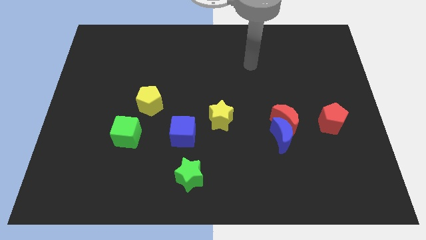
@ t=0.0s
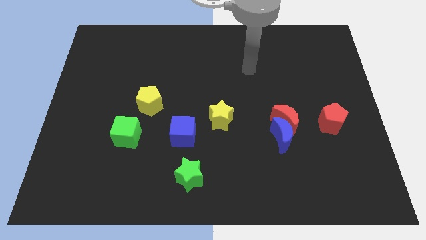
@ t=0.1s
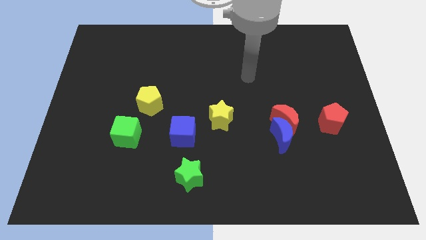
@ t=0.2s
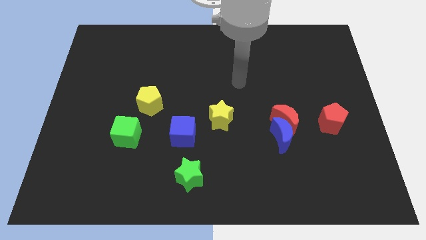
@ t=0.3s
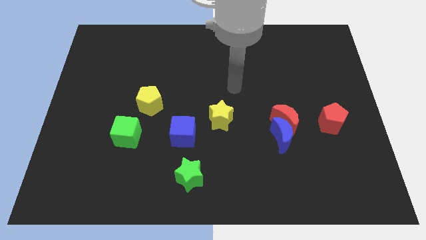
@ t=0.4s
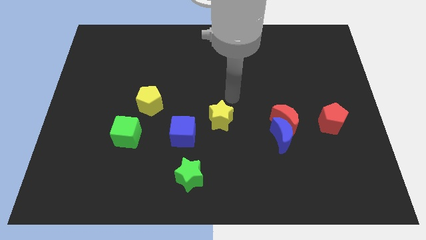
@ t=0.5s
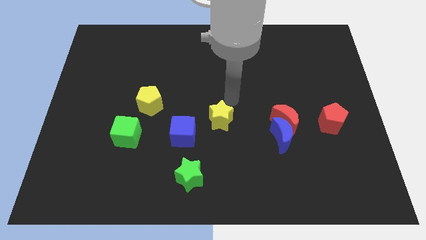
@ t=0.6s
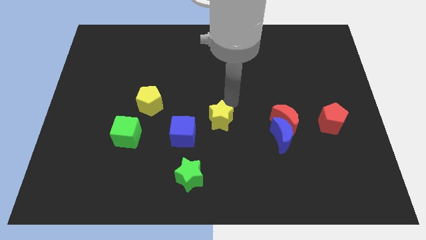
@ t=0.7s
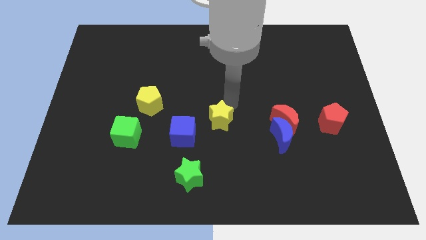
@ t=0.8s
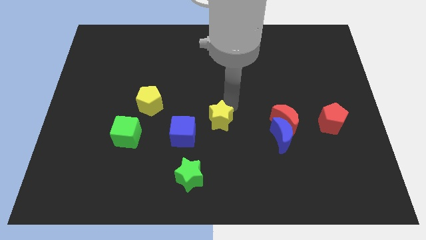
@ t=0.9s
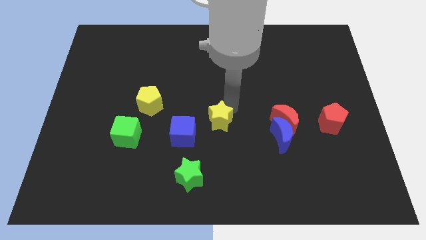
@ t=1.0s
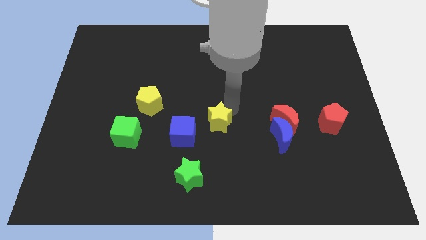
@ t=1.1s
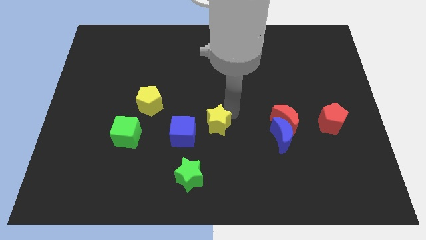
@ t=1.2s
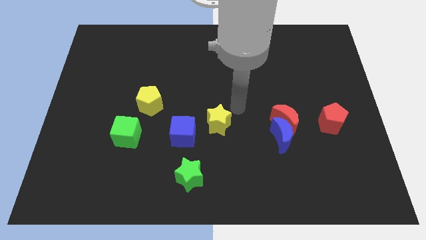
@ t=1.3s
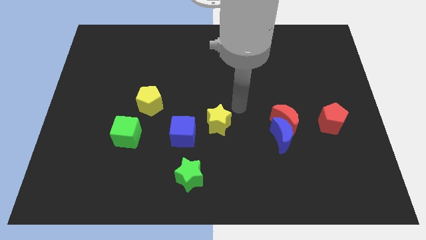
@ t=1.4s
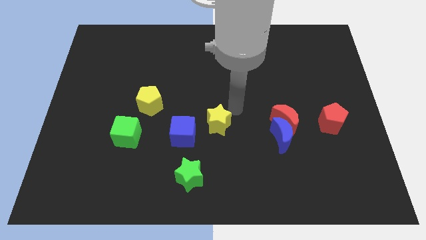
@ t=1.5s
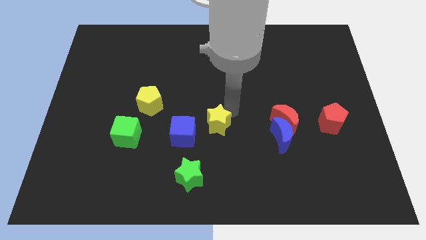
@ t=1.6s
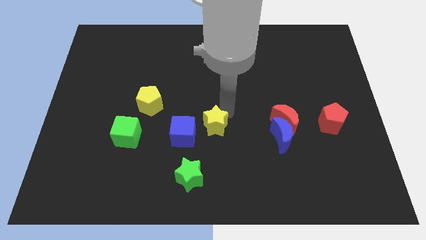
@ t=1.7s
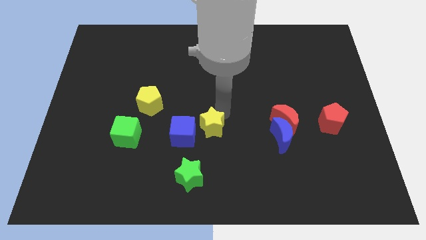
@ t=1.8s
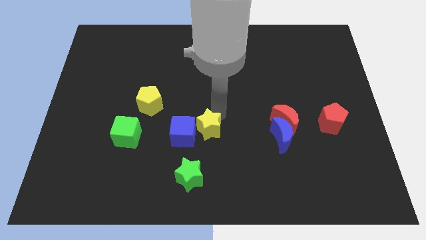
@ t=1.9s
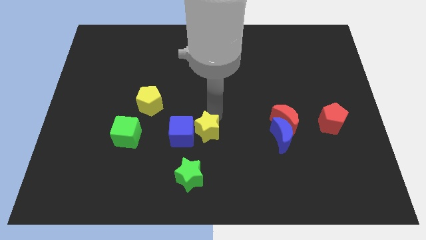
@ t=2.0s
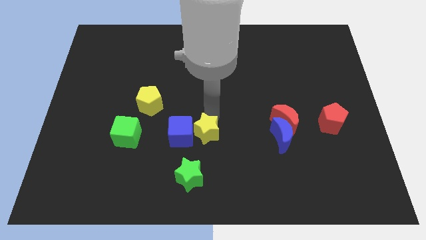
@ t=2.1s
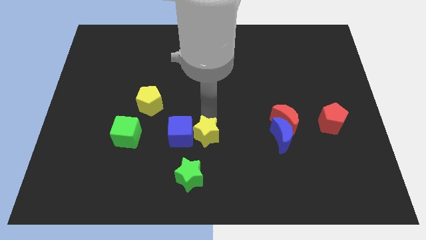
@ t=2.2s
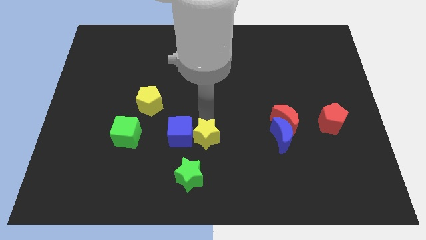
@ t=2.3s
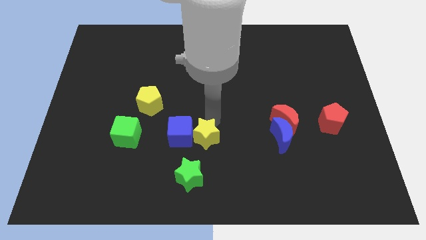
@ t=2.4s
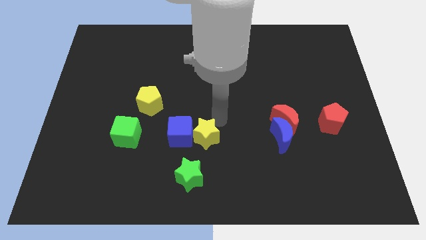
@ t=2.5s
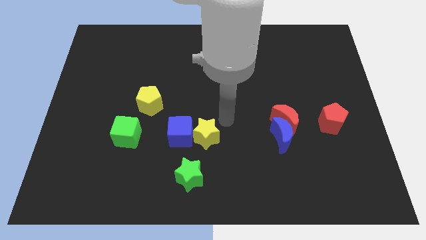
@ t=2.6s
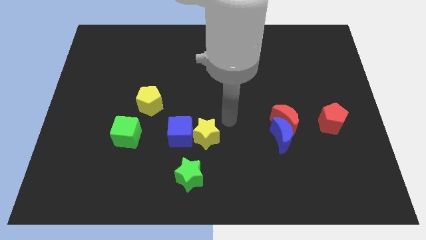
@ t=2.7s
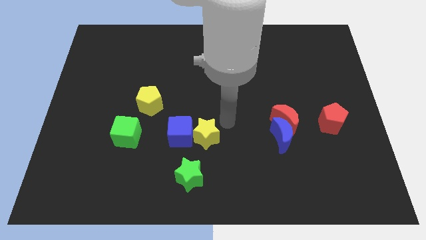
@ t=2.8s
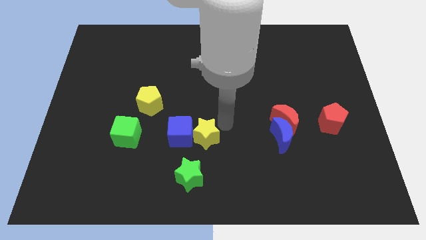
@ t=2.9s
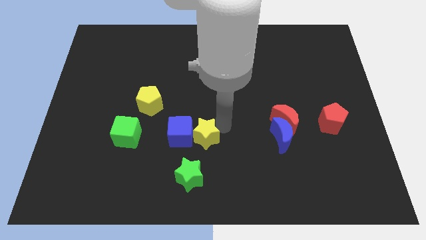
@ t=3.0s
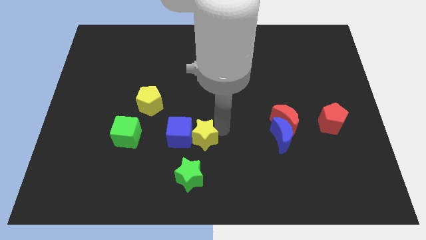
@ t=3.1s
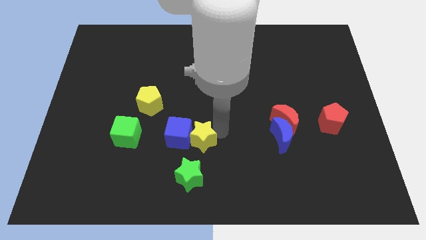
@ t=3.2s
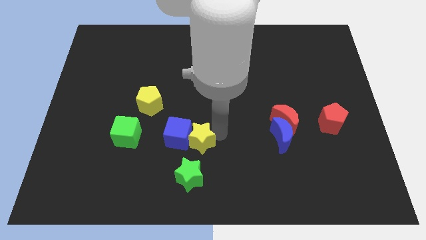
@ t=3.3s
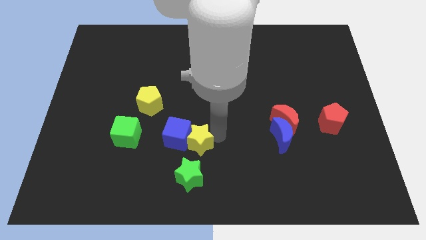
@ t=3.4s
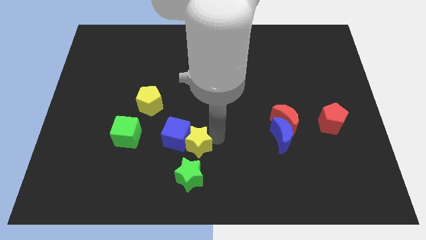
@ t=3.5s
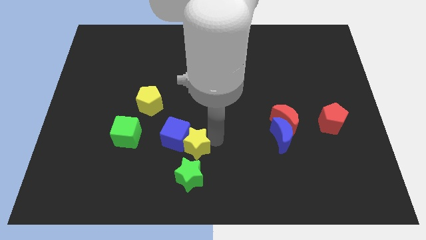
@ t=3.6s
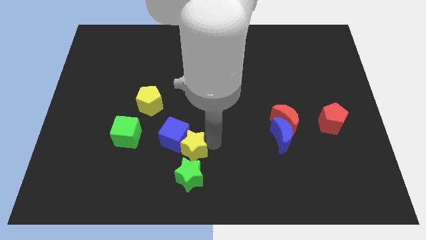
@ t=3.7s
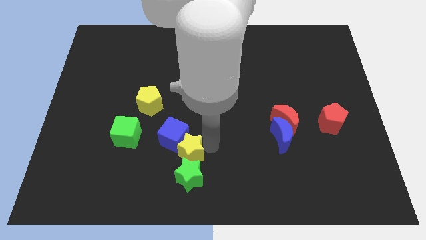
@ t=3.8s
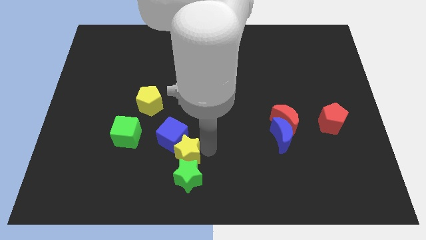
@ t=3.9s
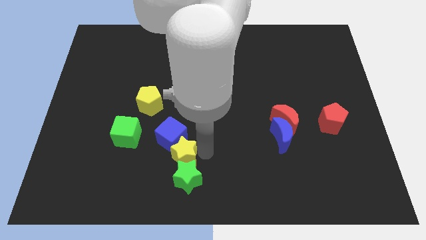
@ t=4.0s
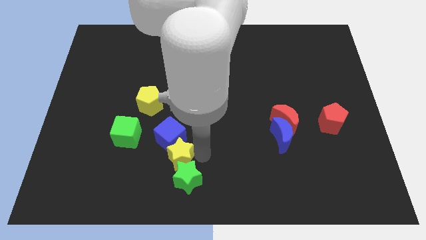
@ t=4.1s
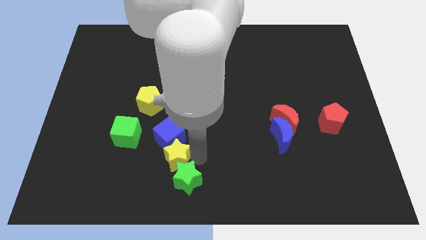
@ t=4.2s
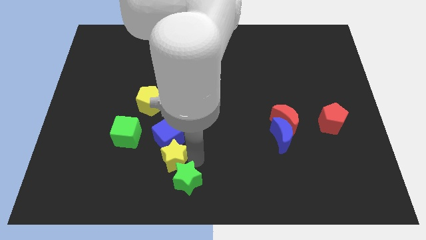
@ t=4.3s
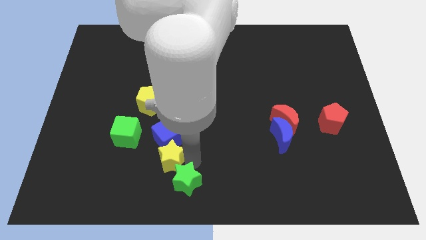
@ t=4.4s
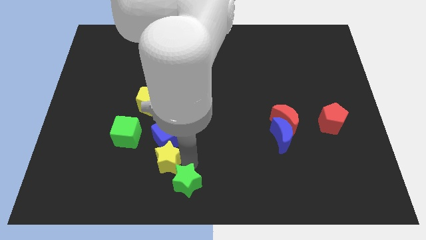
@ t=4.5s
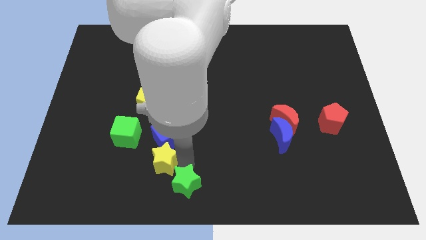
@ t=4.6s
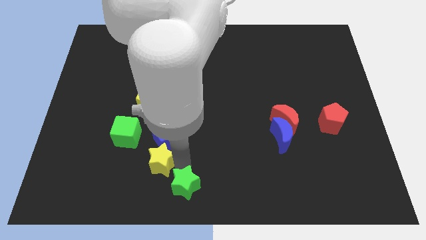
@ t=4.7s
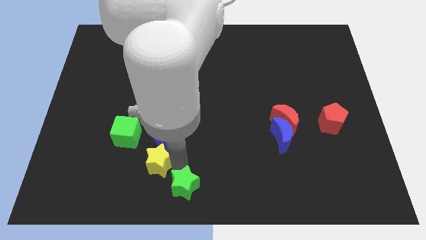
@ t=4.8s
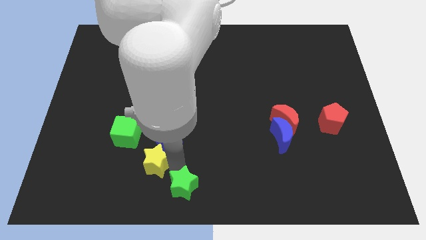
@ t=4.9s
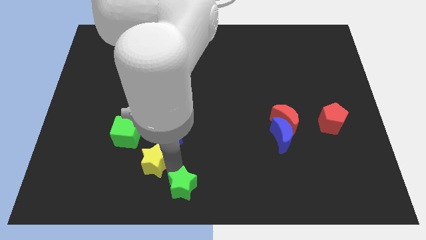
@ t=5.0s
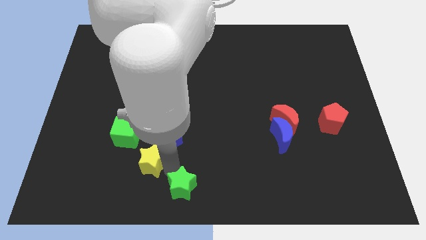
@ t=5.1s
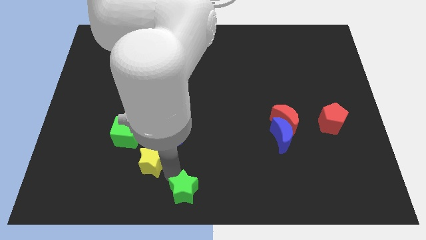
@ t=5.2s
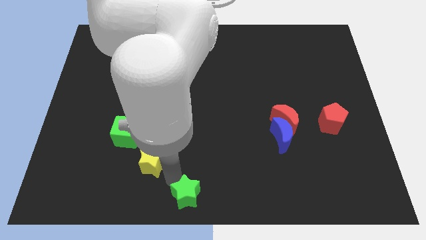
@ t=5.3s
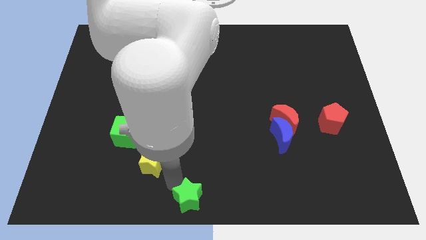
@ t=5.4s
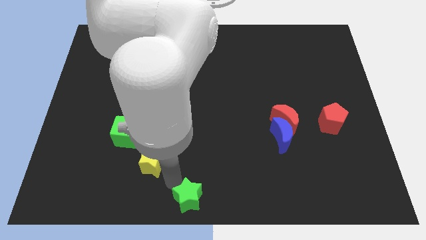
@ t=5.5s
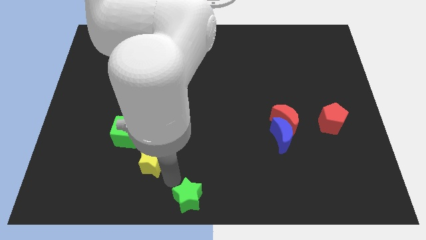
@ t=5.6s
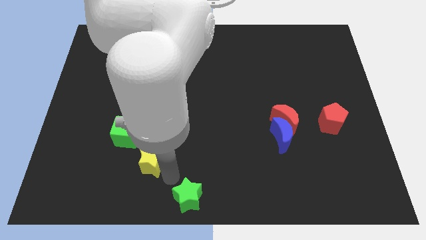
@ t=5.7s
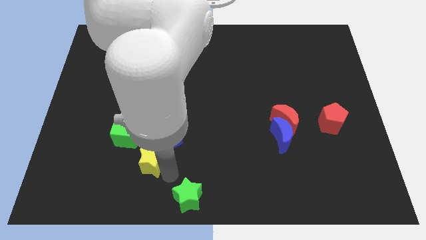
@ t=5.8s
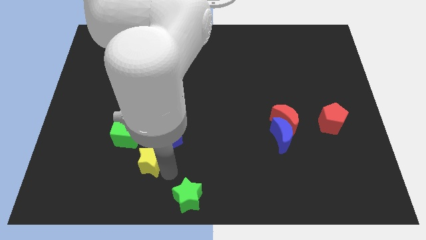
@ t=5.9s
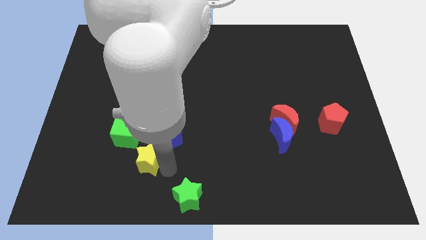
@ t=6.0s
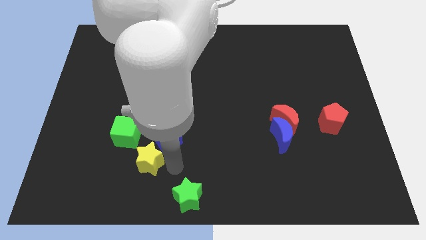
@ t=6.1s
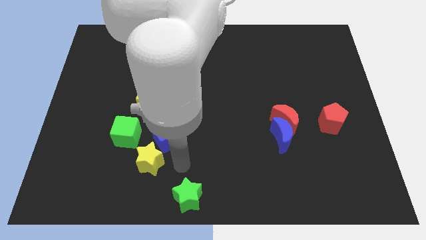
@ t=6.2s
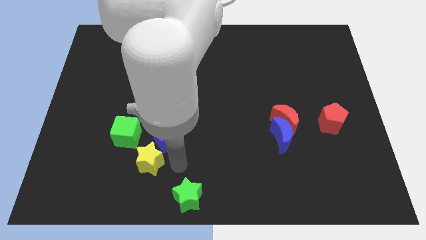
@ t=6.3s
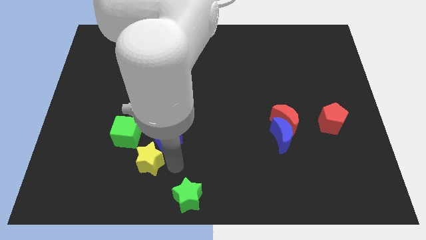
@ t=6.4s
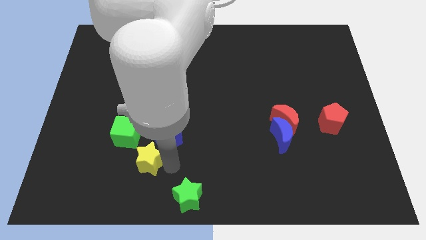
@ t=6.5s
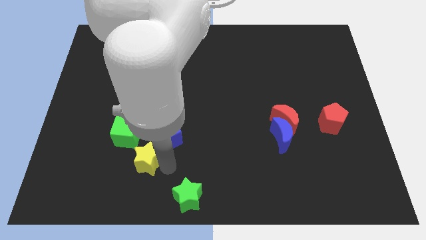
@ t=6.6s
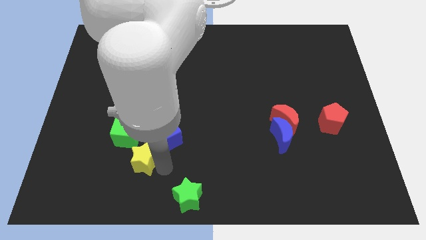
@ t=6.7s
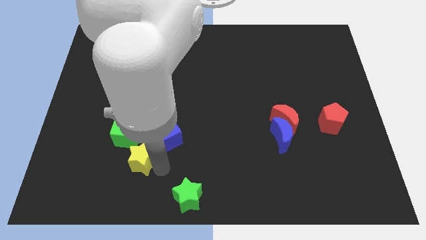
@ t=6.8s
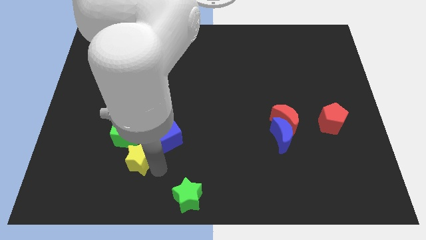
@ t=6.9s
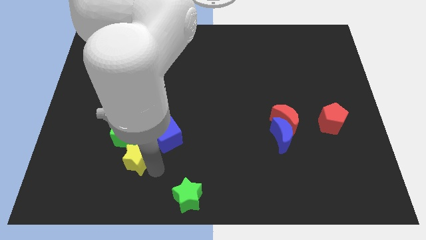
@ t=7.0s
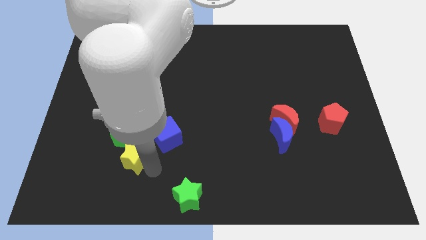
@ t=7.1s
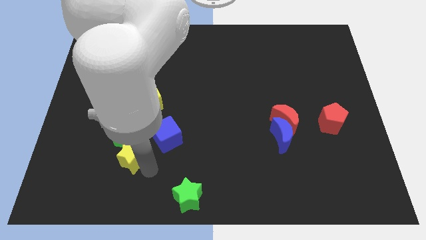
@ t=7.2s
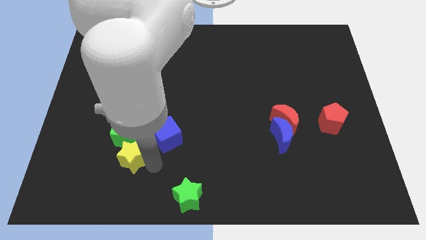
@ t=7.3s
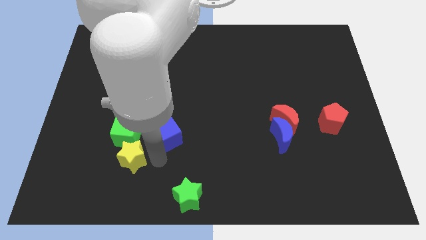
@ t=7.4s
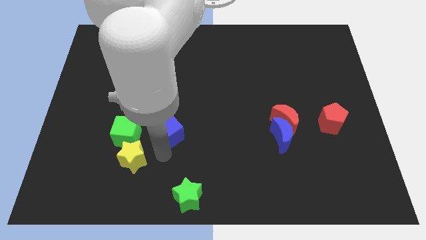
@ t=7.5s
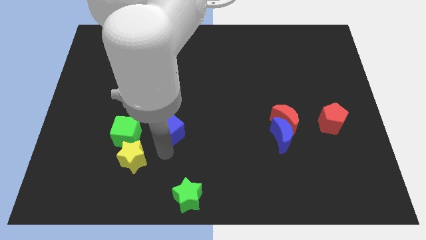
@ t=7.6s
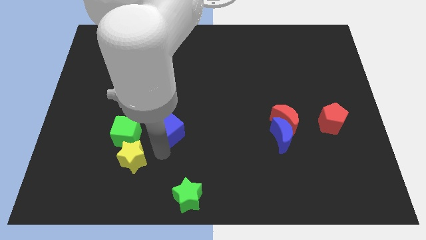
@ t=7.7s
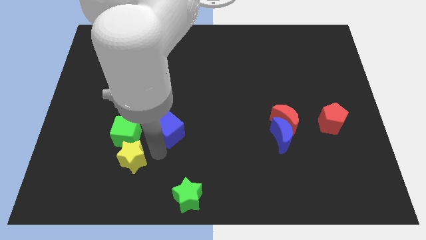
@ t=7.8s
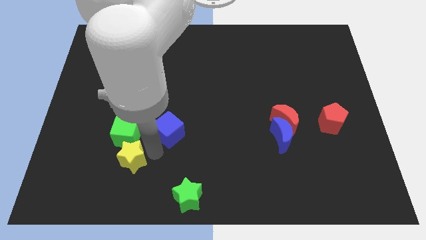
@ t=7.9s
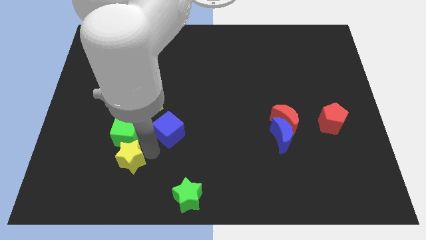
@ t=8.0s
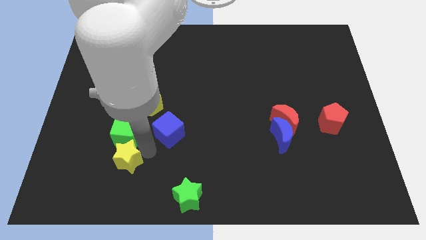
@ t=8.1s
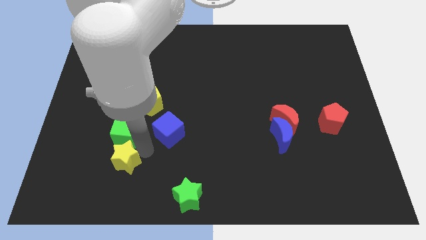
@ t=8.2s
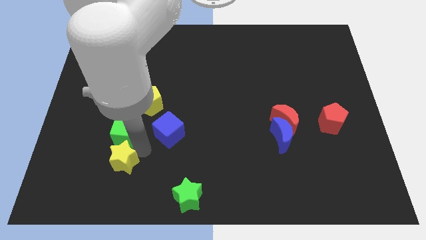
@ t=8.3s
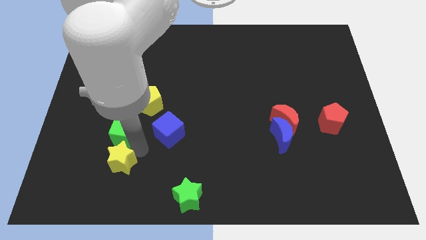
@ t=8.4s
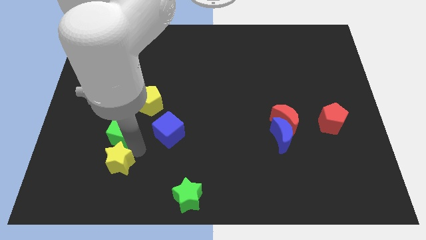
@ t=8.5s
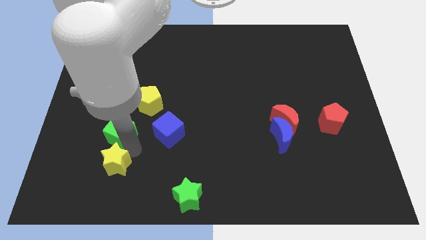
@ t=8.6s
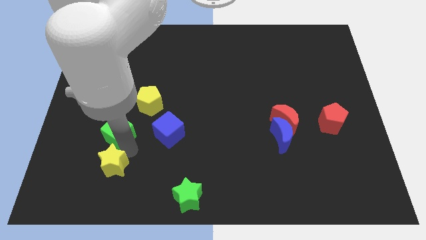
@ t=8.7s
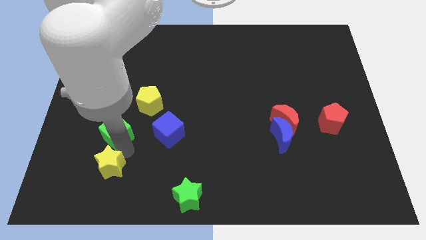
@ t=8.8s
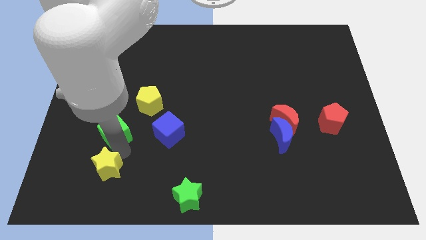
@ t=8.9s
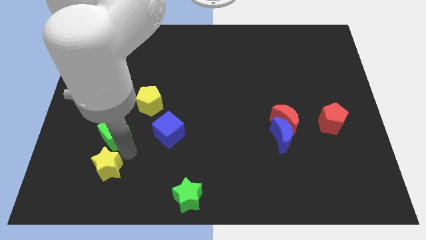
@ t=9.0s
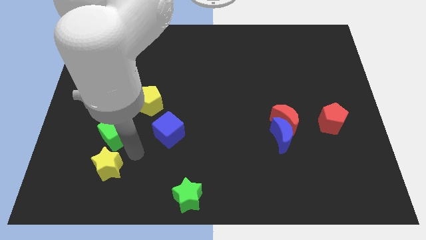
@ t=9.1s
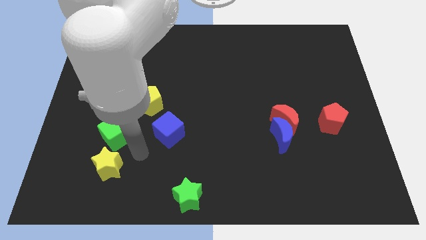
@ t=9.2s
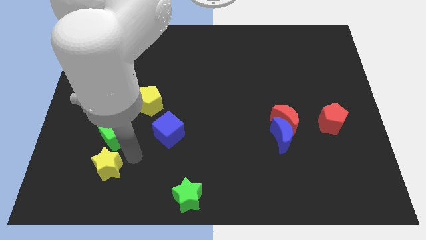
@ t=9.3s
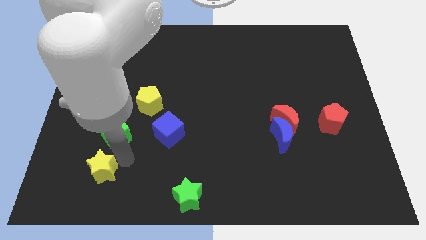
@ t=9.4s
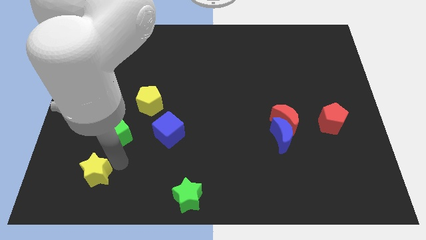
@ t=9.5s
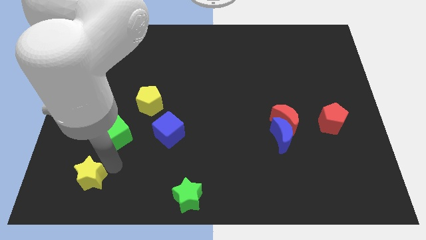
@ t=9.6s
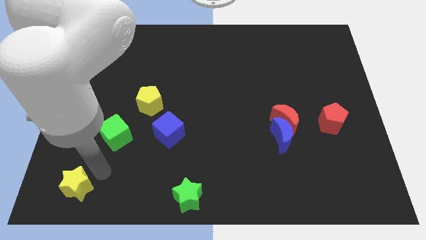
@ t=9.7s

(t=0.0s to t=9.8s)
push the yellow star to the lower left corner
